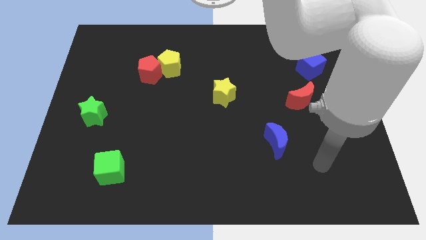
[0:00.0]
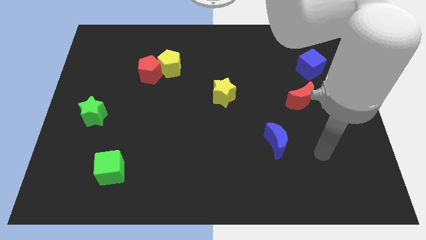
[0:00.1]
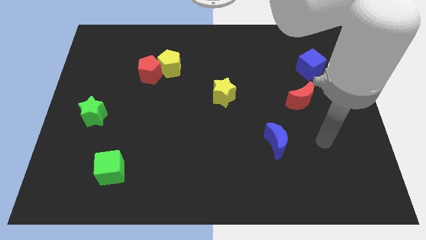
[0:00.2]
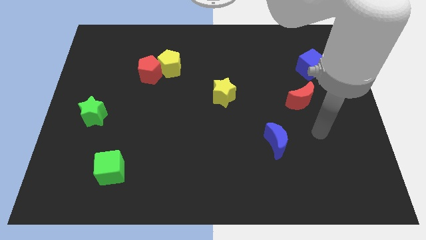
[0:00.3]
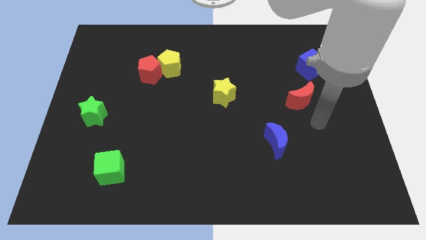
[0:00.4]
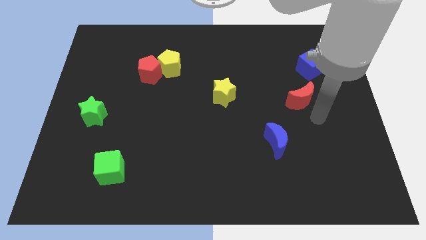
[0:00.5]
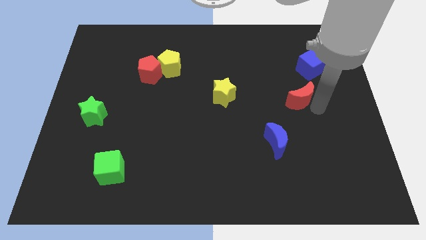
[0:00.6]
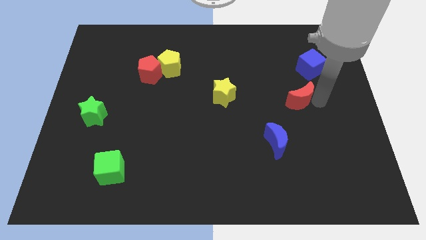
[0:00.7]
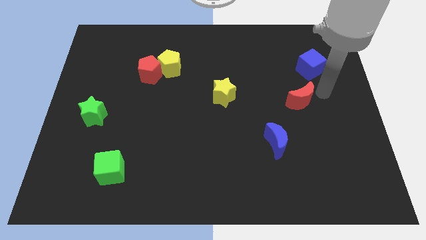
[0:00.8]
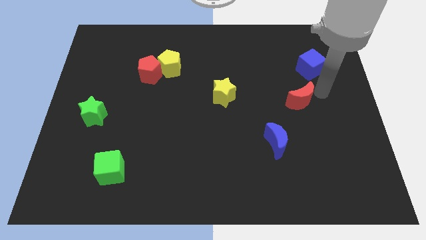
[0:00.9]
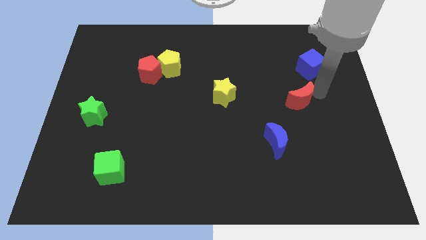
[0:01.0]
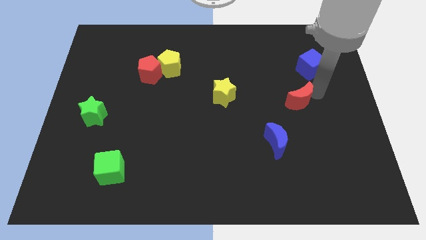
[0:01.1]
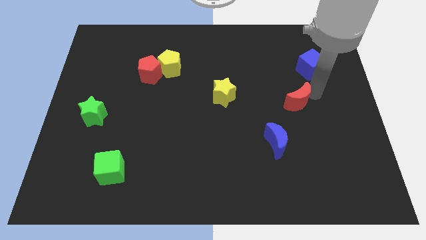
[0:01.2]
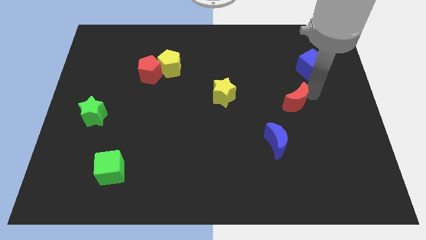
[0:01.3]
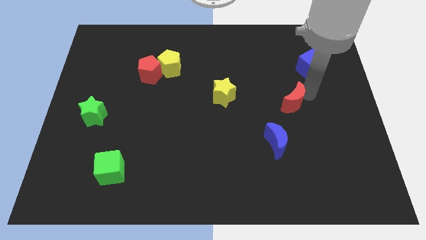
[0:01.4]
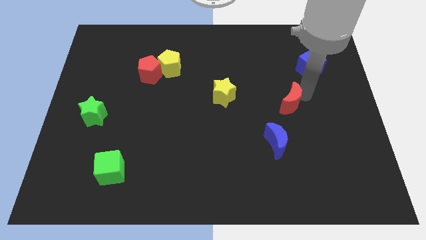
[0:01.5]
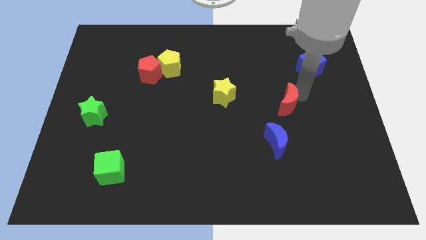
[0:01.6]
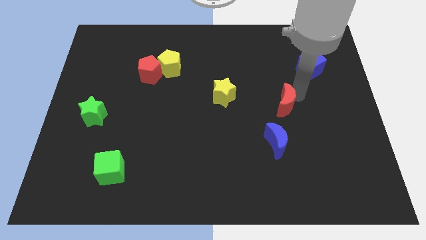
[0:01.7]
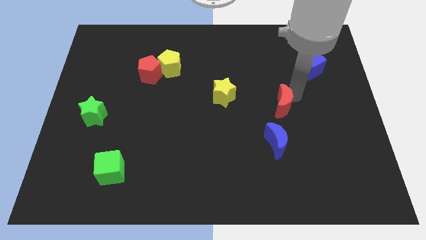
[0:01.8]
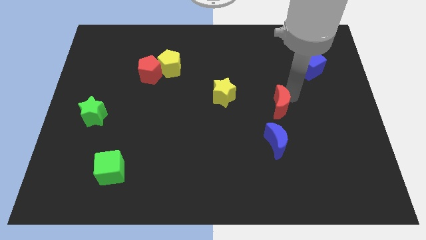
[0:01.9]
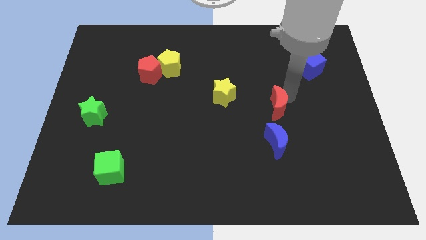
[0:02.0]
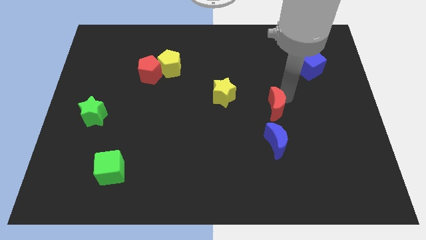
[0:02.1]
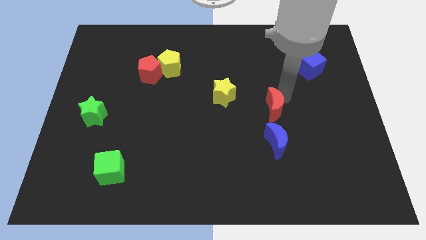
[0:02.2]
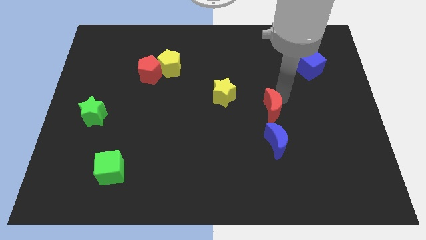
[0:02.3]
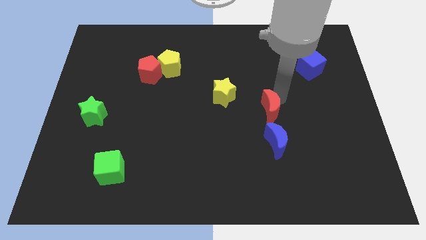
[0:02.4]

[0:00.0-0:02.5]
slide the red moon downwards and to the left a little

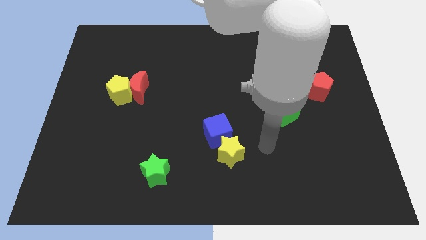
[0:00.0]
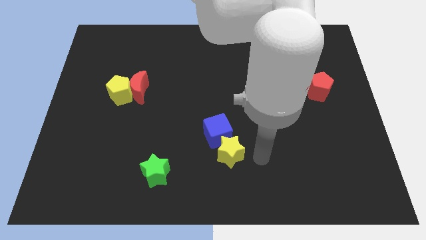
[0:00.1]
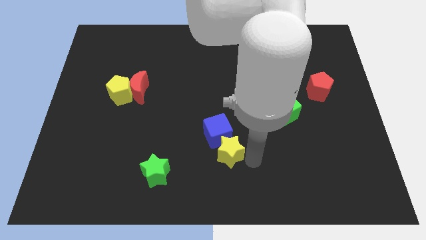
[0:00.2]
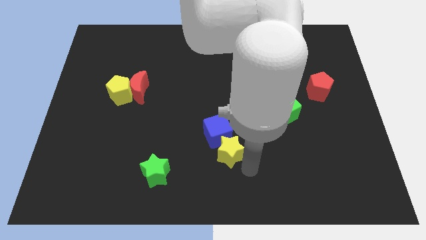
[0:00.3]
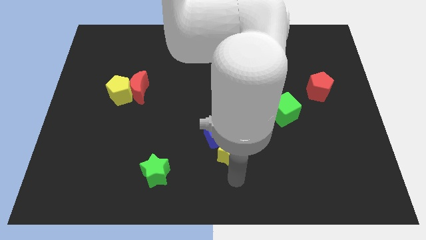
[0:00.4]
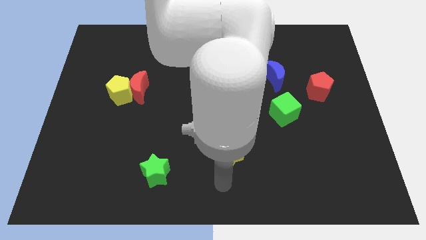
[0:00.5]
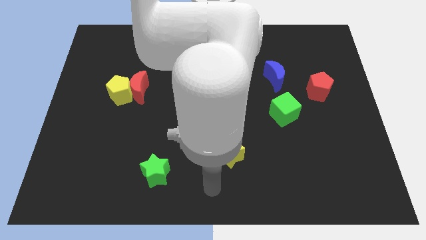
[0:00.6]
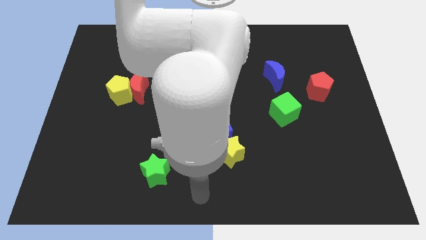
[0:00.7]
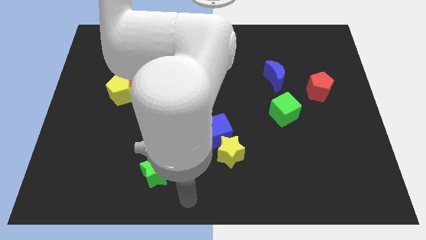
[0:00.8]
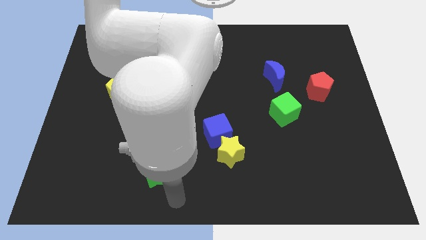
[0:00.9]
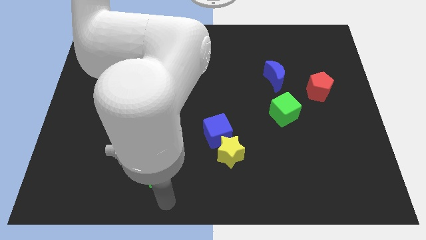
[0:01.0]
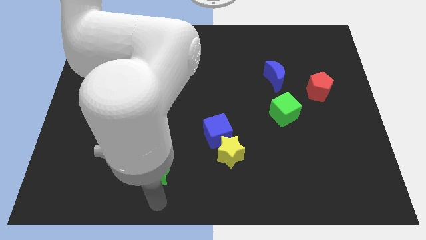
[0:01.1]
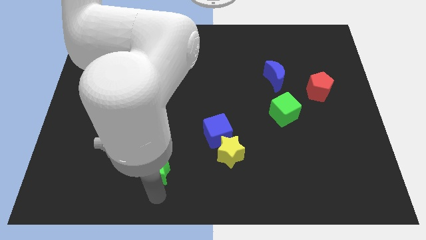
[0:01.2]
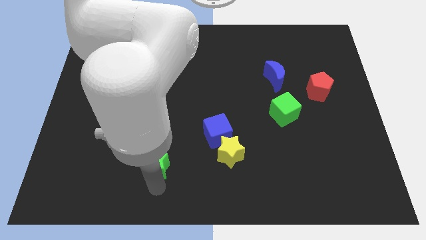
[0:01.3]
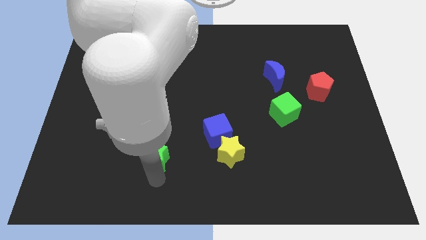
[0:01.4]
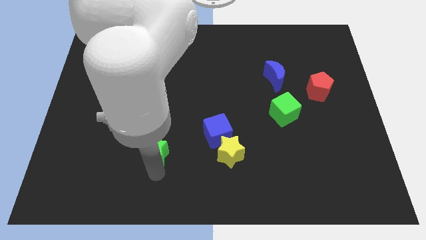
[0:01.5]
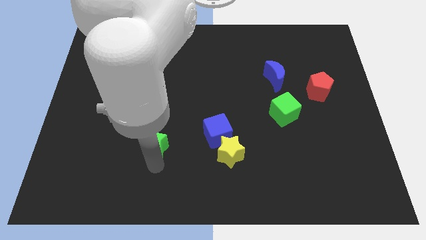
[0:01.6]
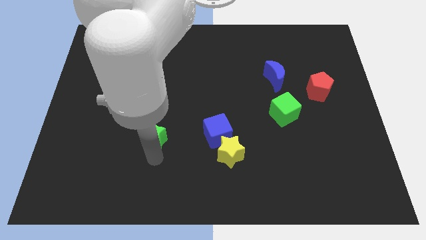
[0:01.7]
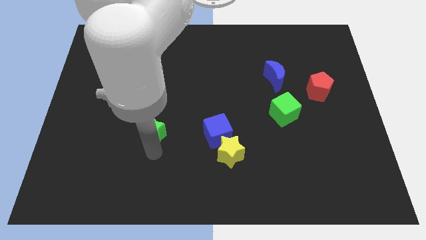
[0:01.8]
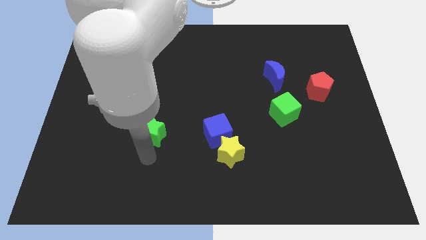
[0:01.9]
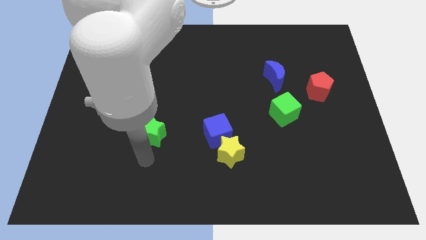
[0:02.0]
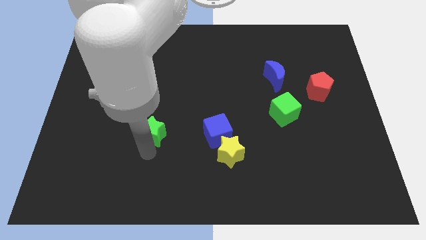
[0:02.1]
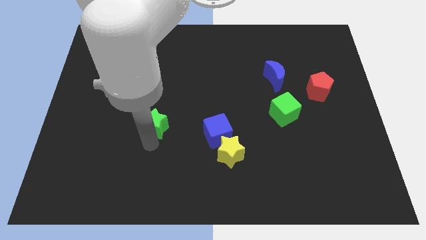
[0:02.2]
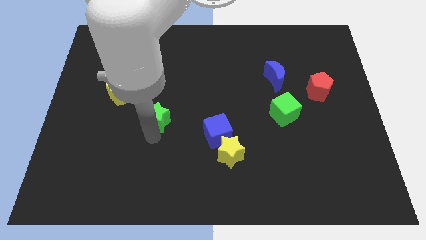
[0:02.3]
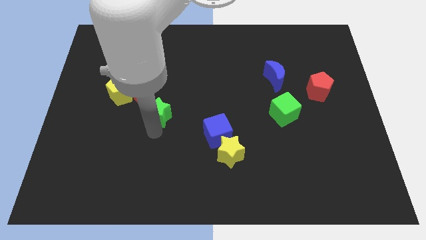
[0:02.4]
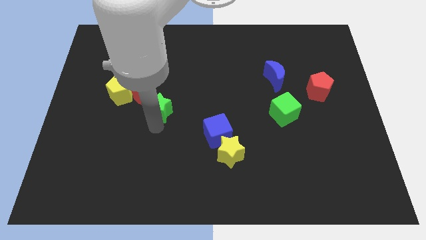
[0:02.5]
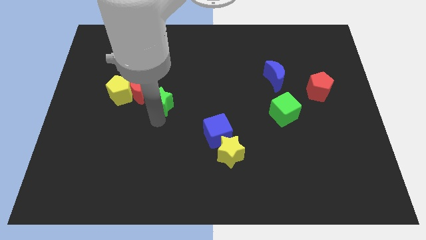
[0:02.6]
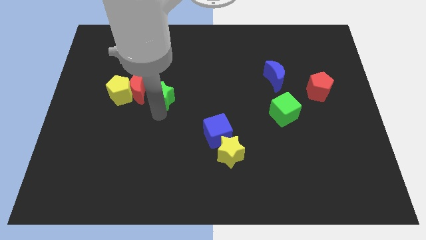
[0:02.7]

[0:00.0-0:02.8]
move the green star upwards

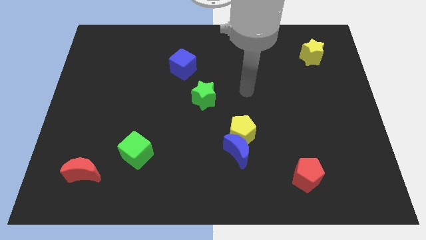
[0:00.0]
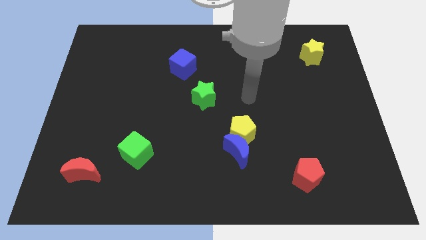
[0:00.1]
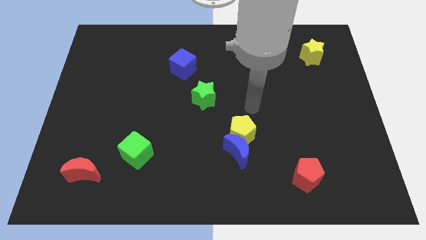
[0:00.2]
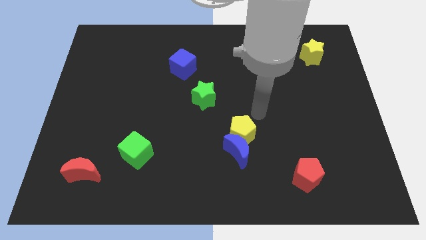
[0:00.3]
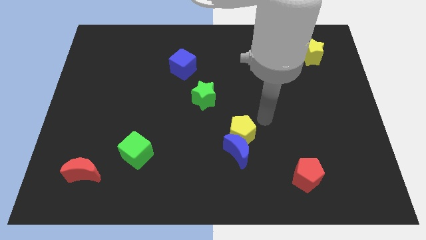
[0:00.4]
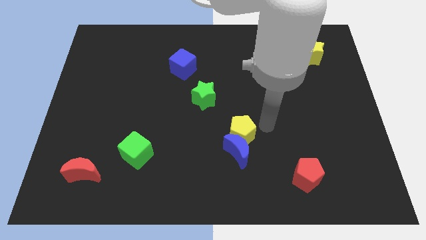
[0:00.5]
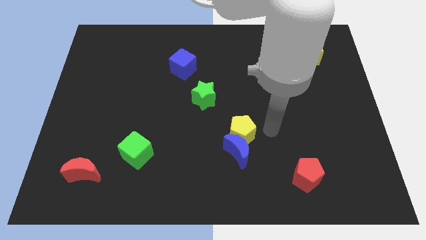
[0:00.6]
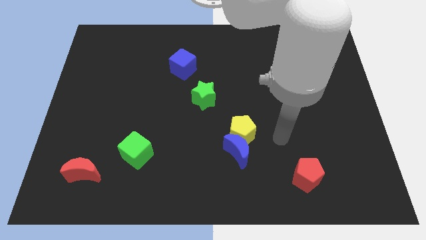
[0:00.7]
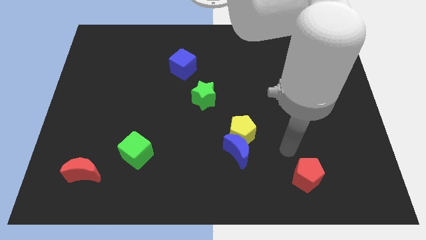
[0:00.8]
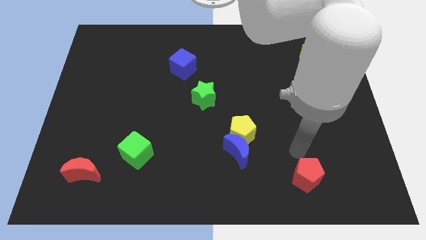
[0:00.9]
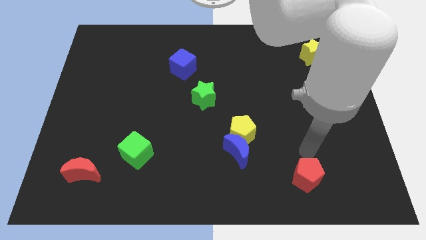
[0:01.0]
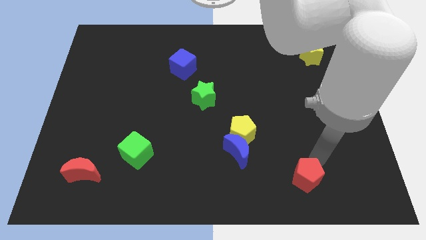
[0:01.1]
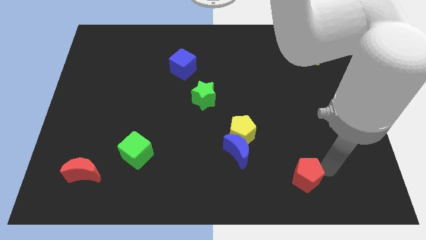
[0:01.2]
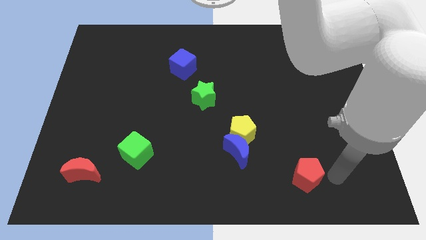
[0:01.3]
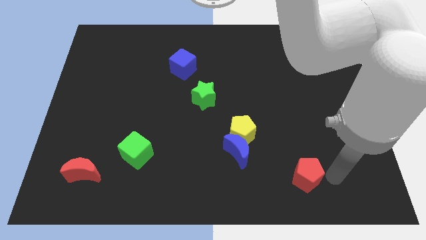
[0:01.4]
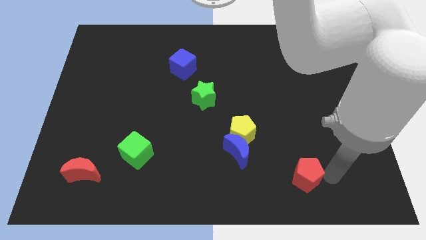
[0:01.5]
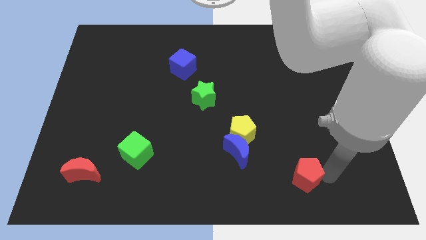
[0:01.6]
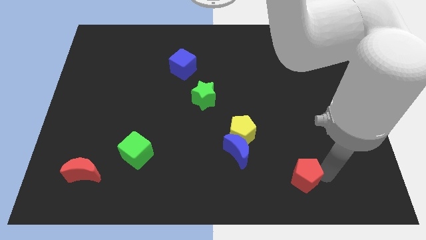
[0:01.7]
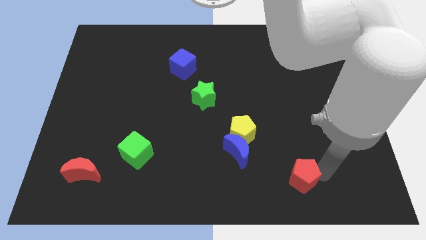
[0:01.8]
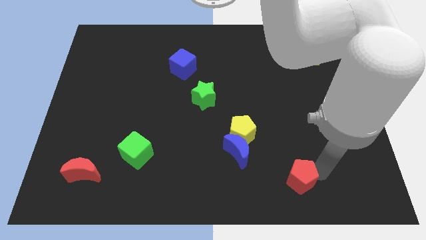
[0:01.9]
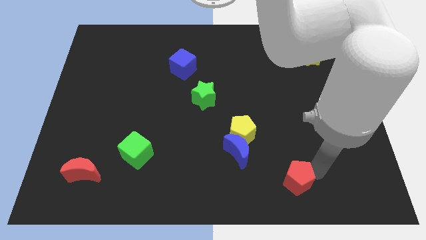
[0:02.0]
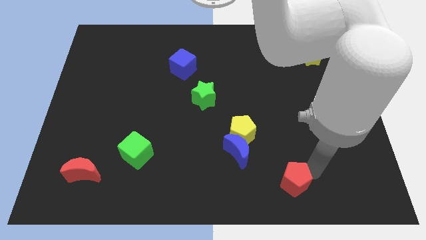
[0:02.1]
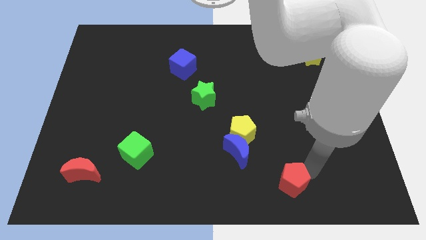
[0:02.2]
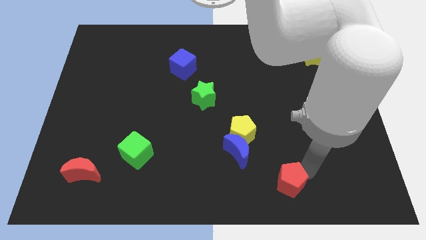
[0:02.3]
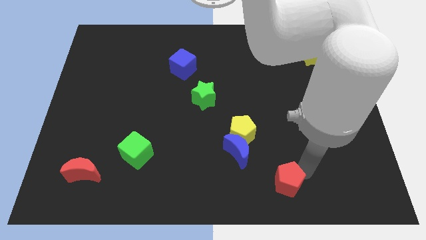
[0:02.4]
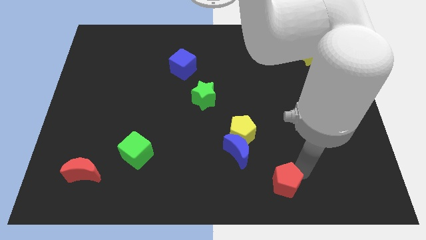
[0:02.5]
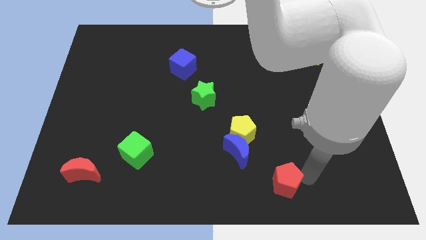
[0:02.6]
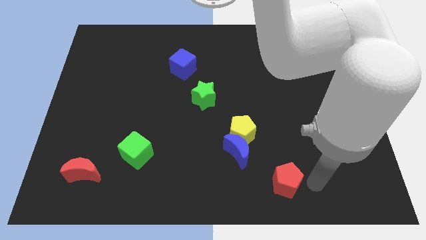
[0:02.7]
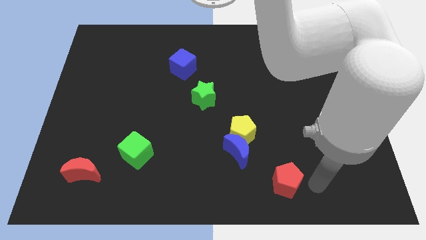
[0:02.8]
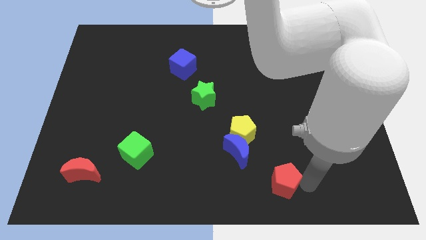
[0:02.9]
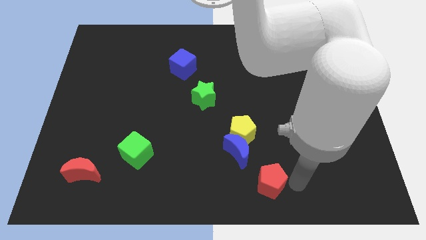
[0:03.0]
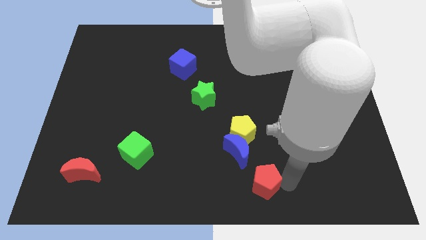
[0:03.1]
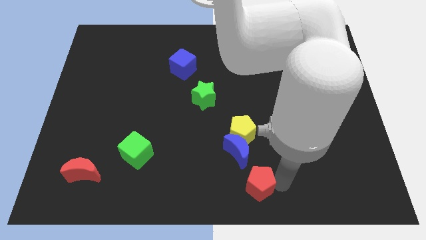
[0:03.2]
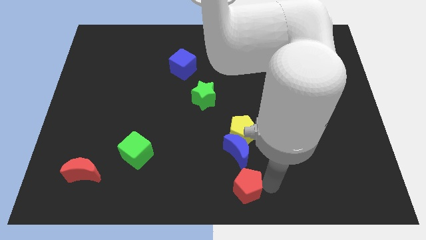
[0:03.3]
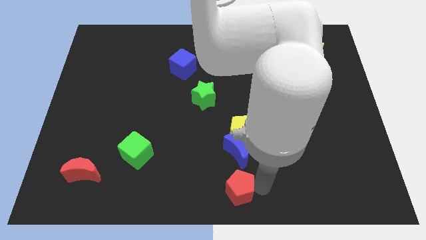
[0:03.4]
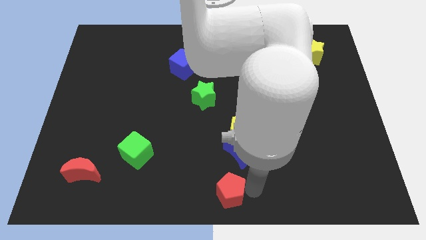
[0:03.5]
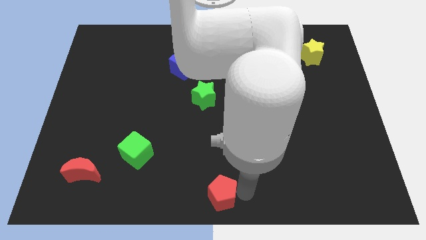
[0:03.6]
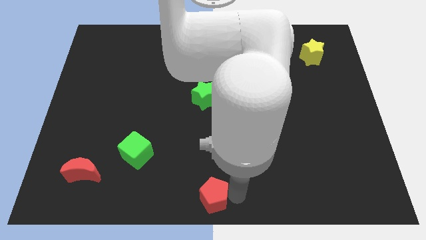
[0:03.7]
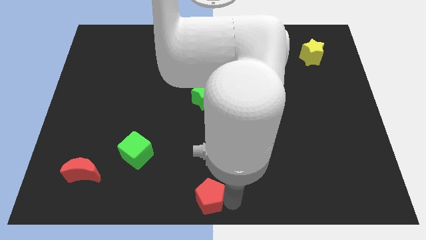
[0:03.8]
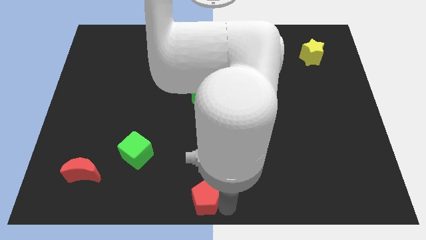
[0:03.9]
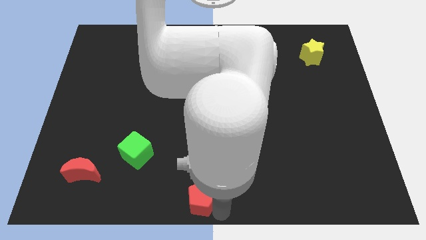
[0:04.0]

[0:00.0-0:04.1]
move the red pentagon left
